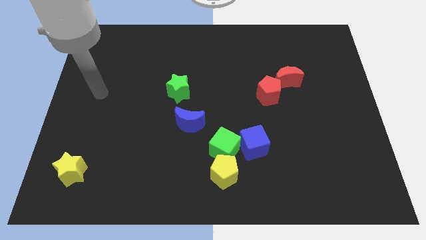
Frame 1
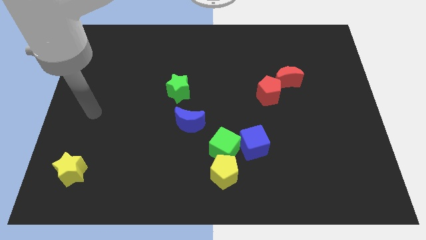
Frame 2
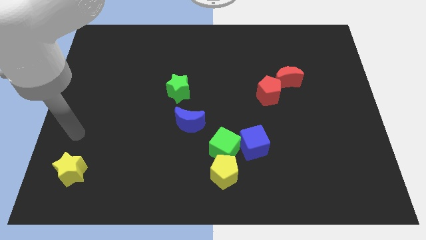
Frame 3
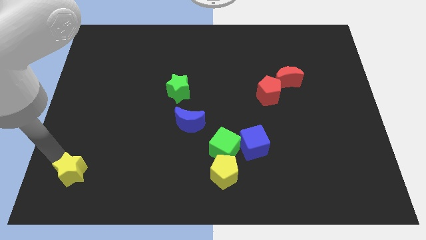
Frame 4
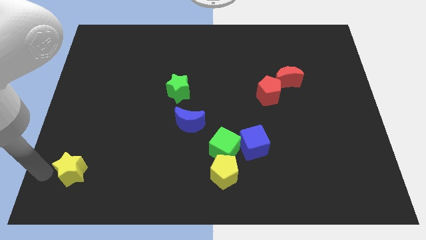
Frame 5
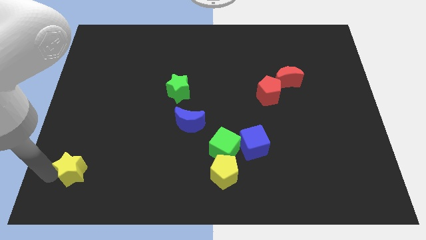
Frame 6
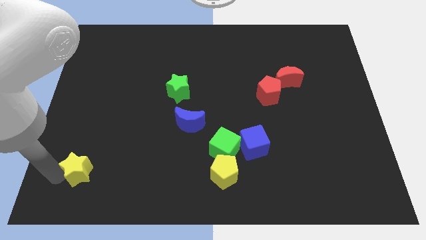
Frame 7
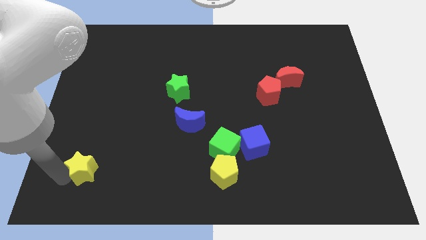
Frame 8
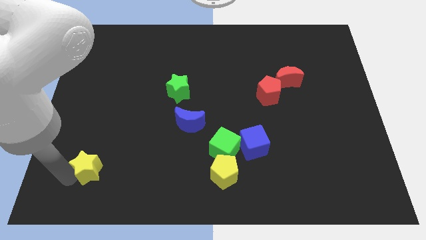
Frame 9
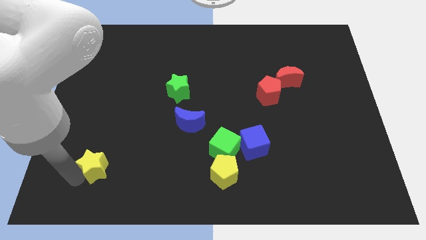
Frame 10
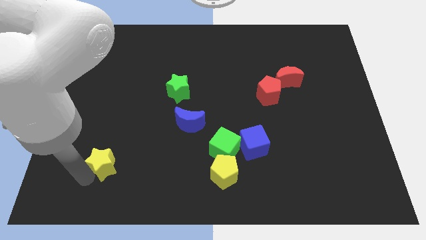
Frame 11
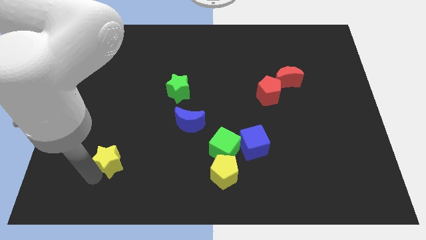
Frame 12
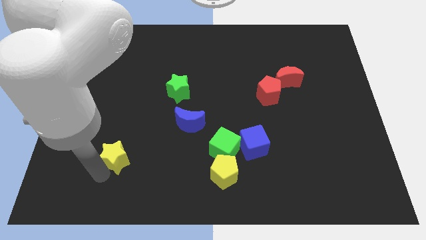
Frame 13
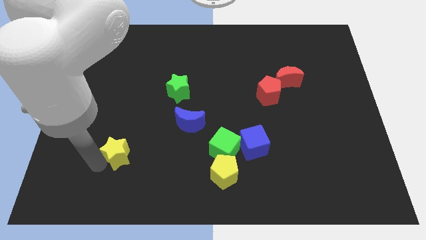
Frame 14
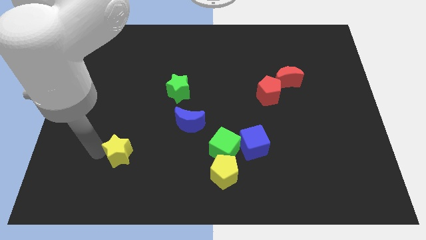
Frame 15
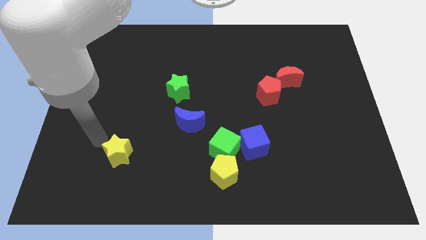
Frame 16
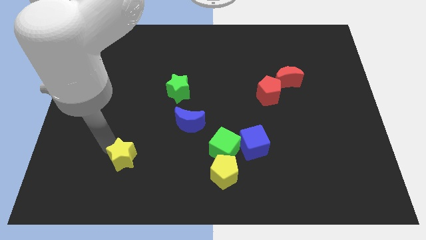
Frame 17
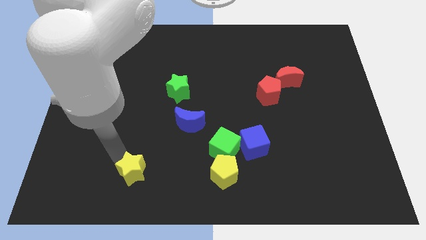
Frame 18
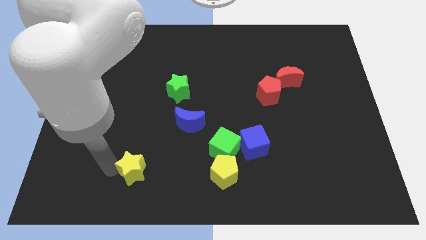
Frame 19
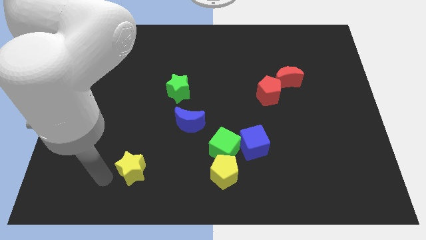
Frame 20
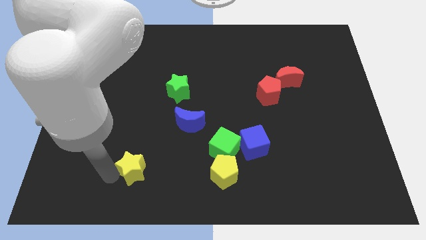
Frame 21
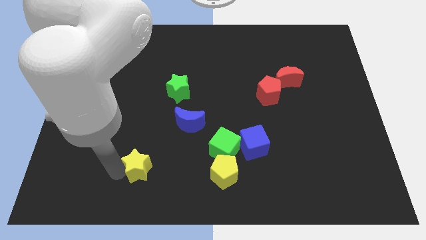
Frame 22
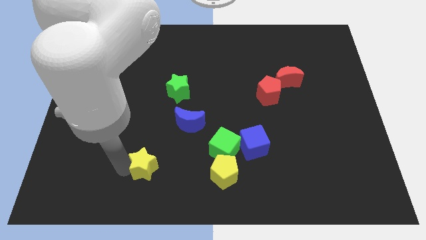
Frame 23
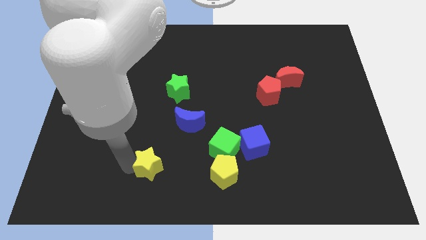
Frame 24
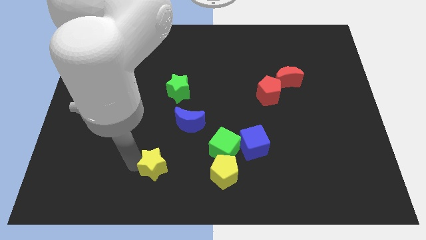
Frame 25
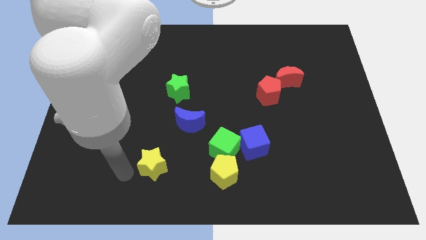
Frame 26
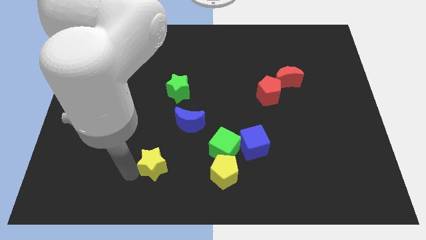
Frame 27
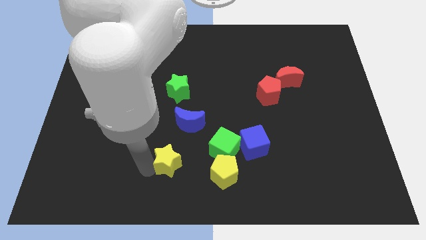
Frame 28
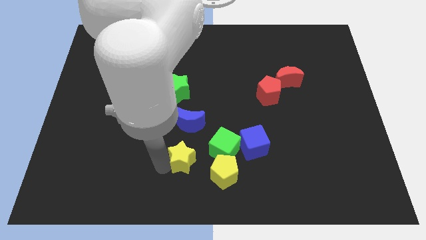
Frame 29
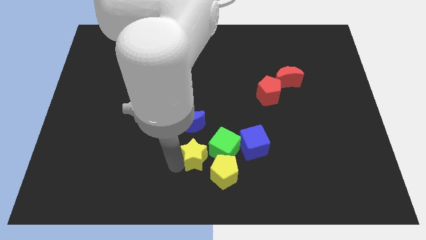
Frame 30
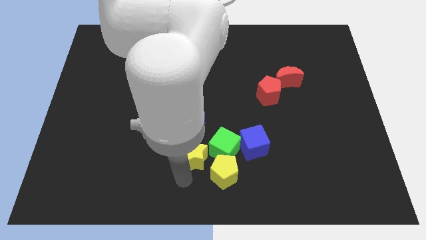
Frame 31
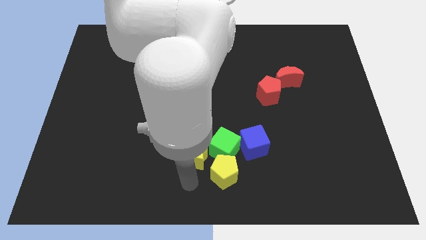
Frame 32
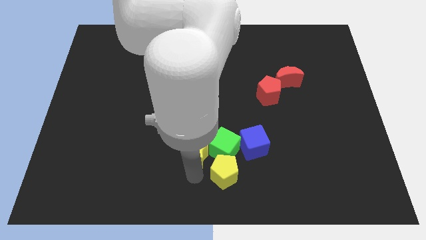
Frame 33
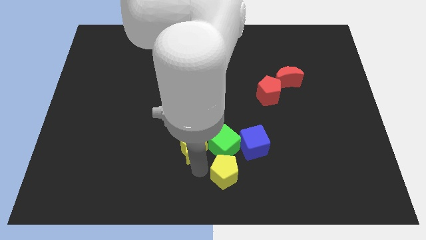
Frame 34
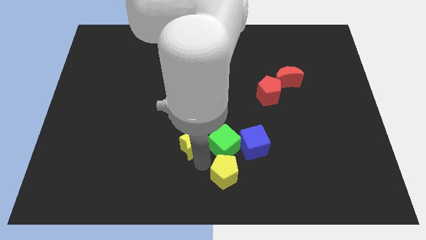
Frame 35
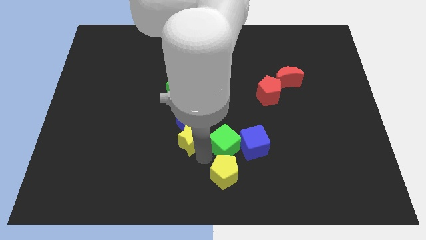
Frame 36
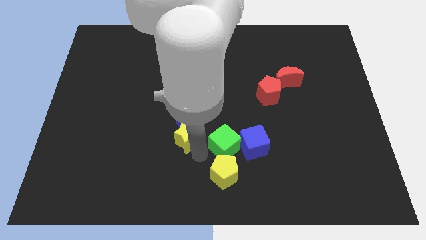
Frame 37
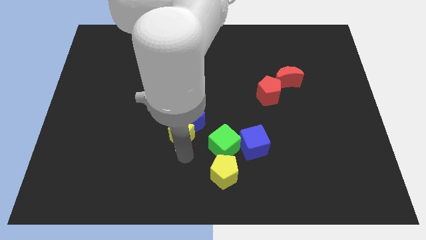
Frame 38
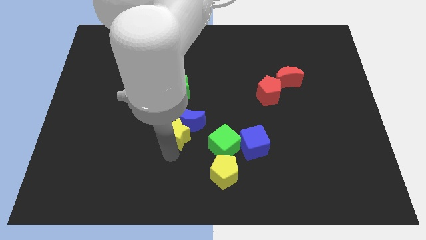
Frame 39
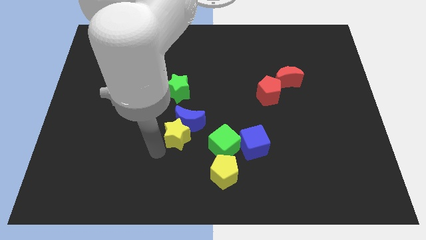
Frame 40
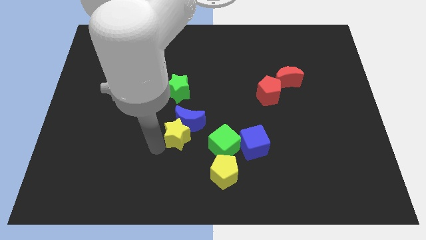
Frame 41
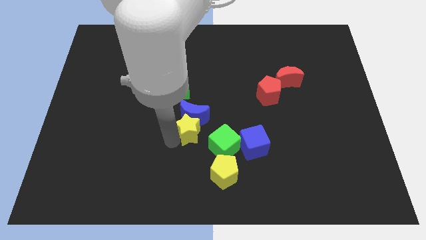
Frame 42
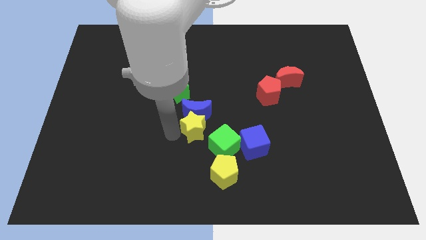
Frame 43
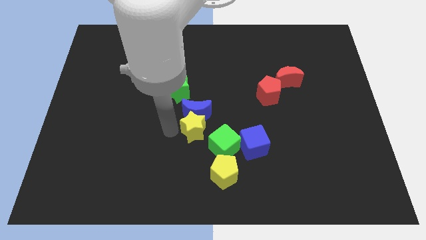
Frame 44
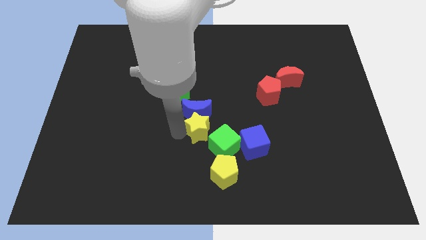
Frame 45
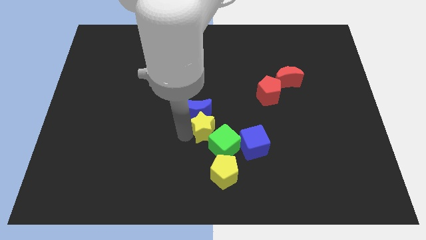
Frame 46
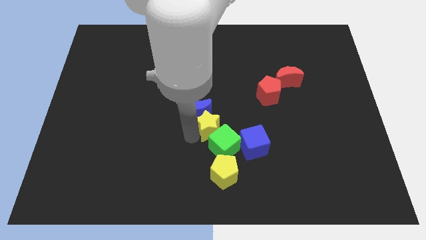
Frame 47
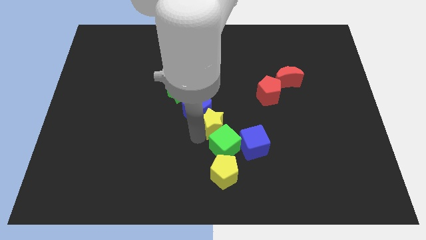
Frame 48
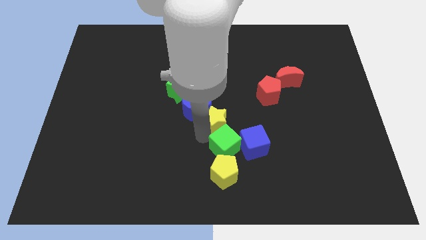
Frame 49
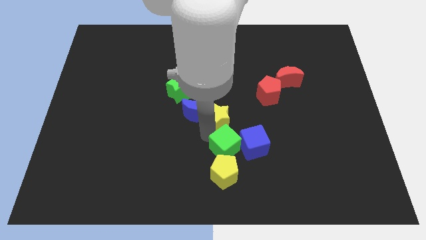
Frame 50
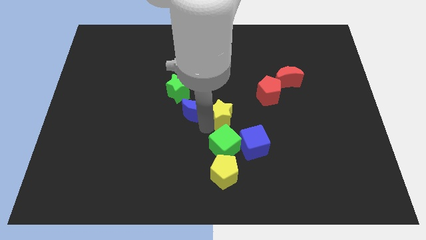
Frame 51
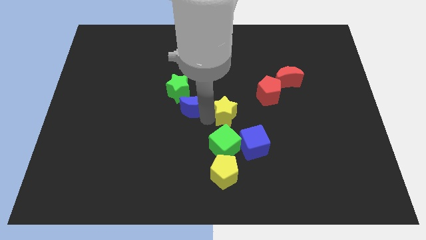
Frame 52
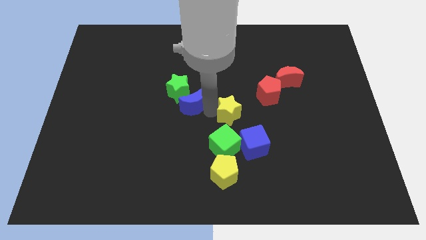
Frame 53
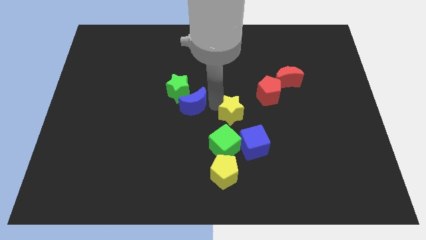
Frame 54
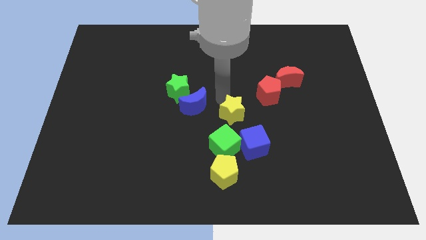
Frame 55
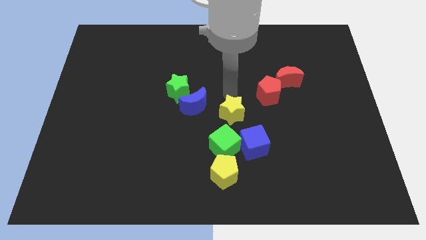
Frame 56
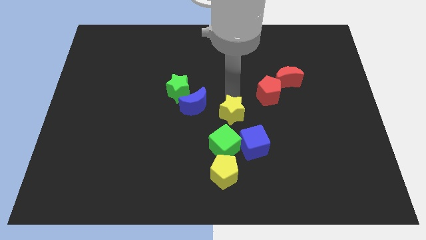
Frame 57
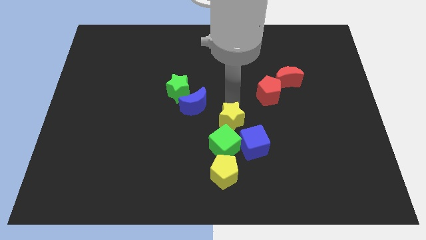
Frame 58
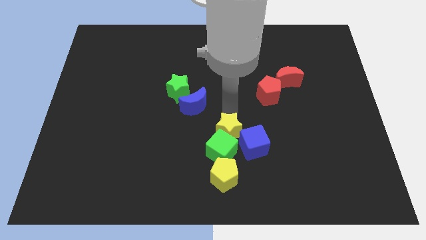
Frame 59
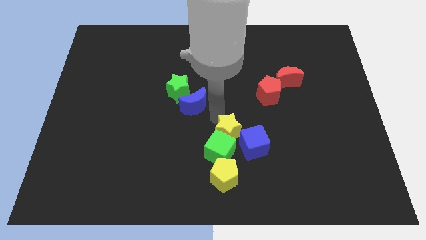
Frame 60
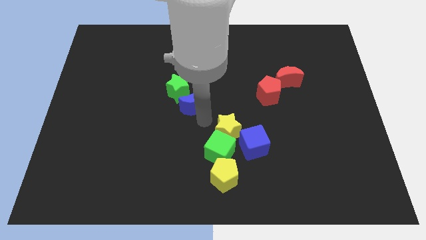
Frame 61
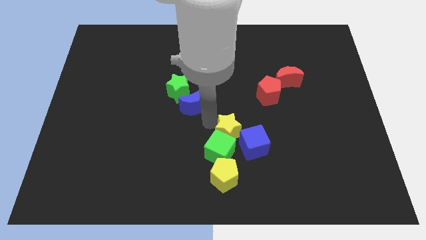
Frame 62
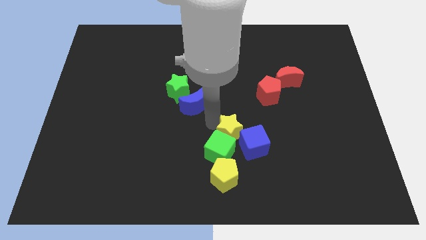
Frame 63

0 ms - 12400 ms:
move the yellow star towards the blue cube

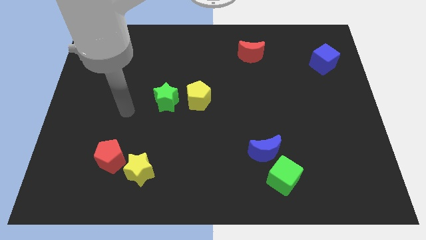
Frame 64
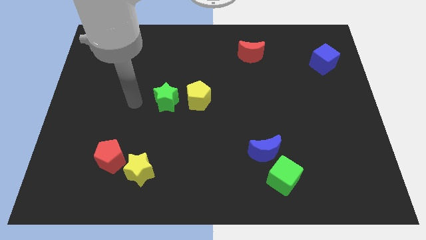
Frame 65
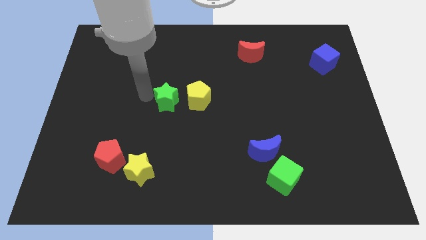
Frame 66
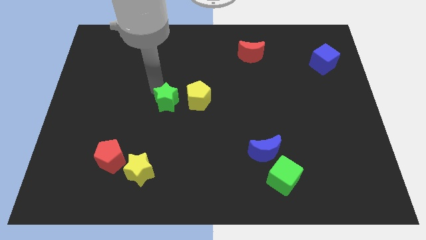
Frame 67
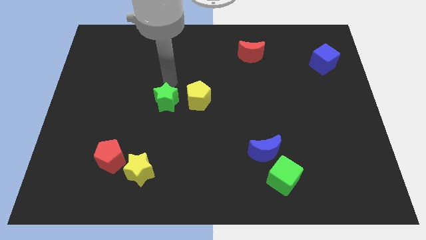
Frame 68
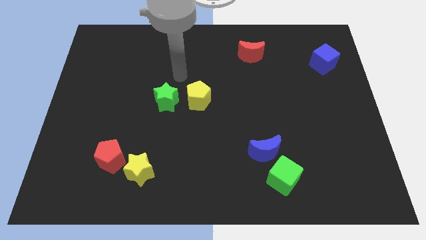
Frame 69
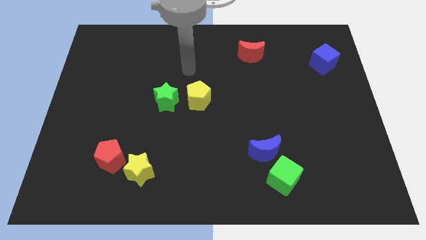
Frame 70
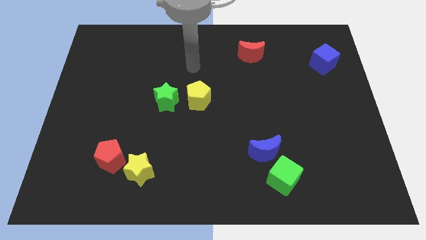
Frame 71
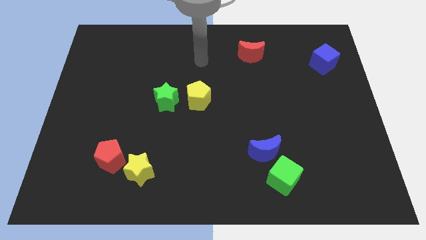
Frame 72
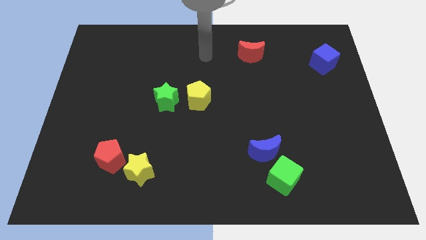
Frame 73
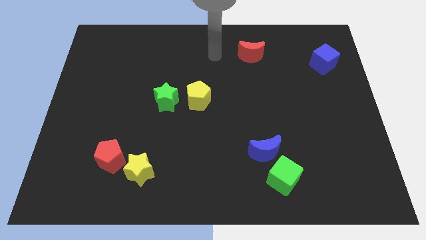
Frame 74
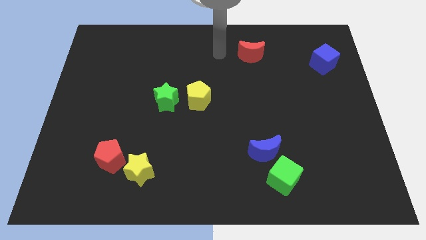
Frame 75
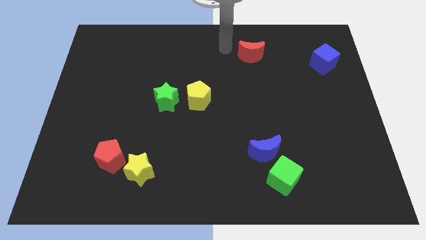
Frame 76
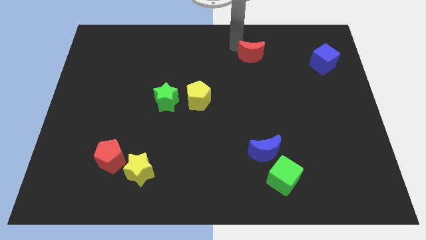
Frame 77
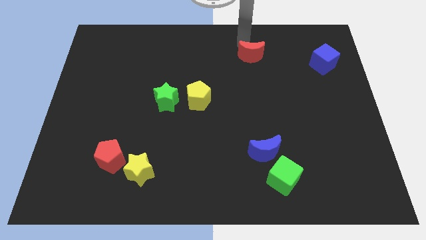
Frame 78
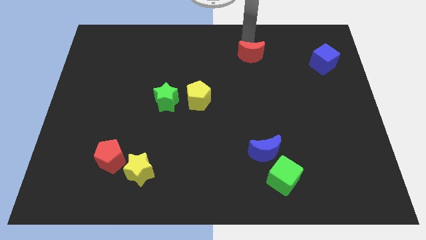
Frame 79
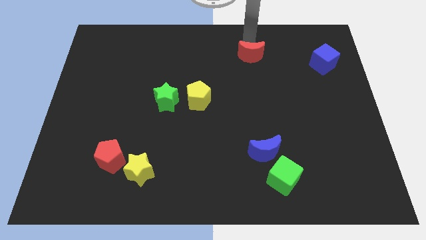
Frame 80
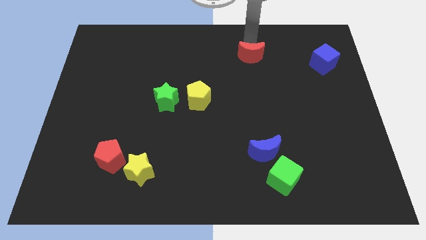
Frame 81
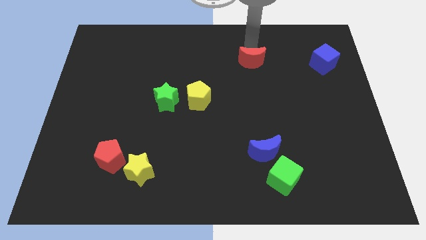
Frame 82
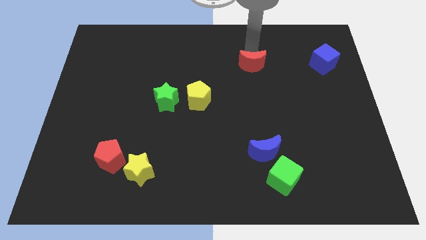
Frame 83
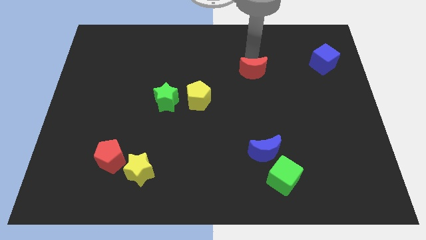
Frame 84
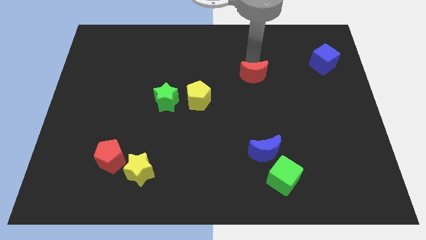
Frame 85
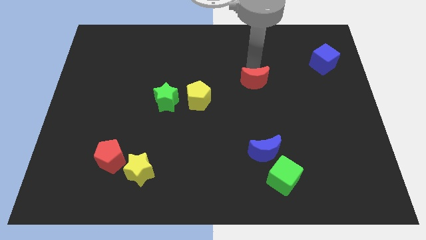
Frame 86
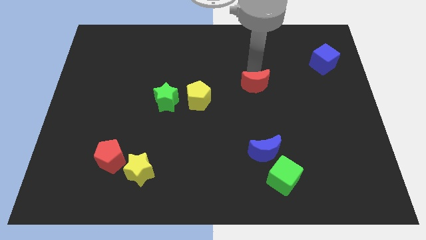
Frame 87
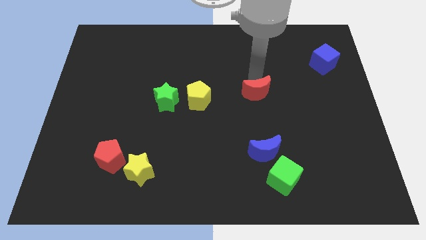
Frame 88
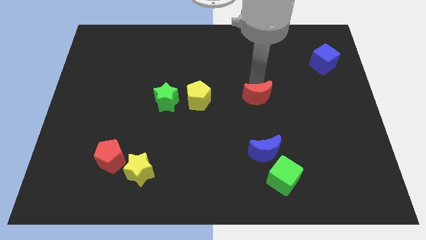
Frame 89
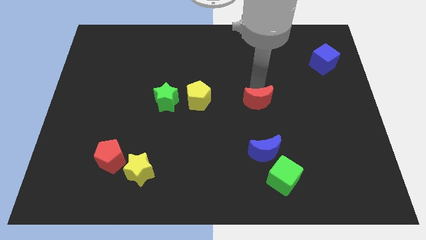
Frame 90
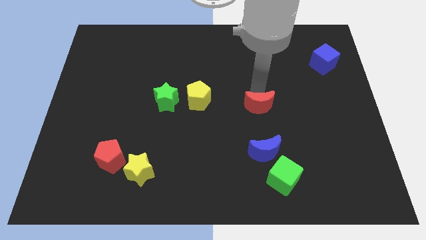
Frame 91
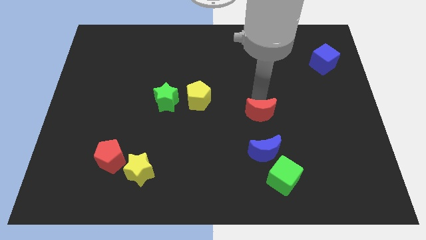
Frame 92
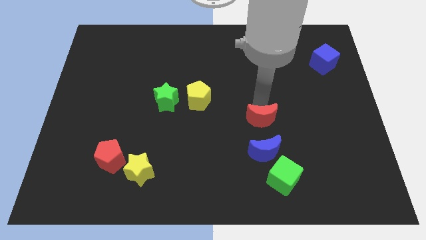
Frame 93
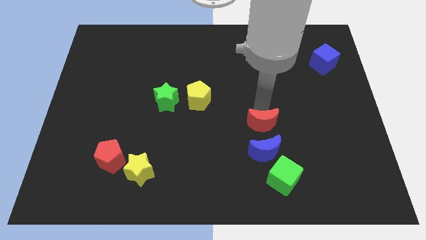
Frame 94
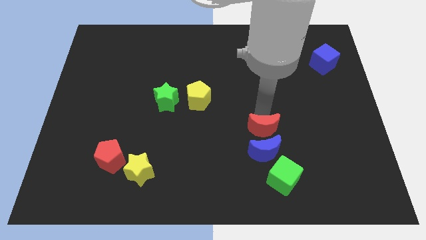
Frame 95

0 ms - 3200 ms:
move the red moon to the blue moon
